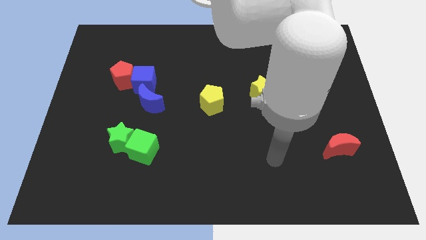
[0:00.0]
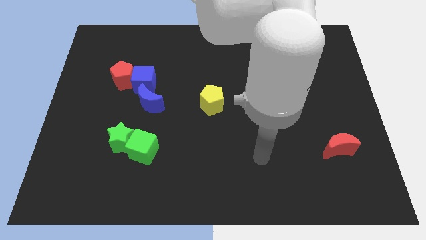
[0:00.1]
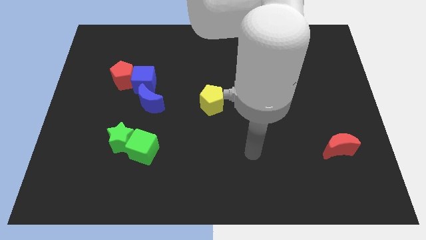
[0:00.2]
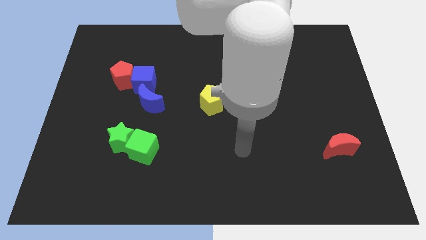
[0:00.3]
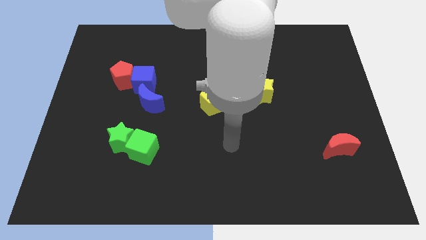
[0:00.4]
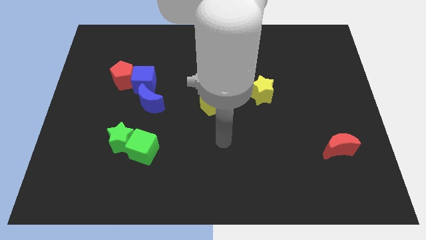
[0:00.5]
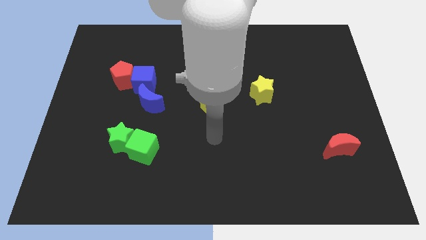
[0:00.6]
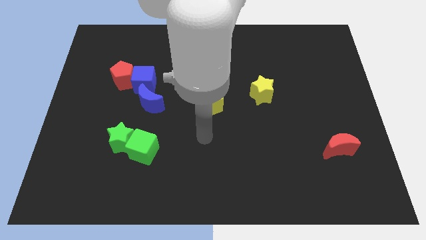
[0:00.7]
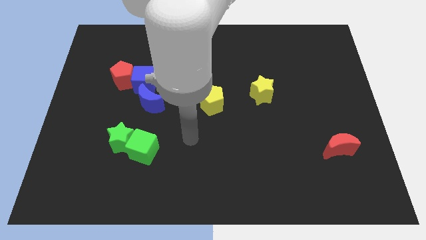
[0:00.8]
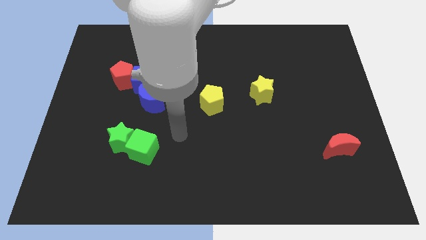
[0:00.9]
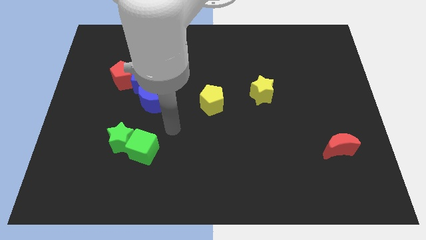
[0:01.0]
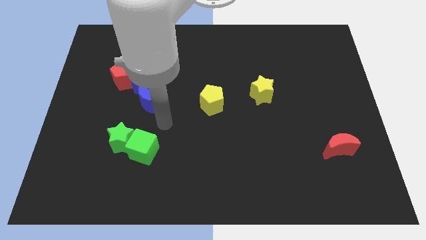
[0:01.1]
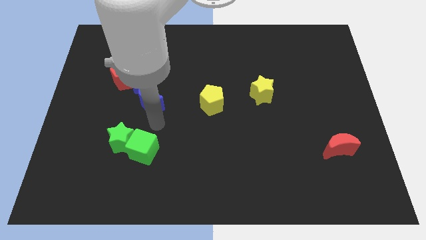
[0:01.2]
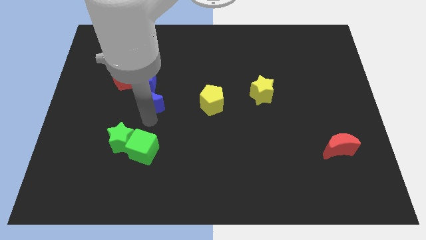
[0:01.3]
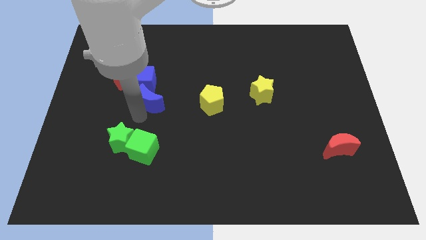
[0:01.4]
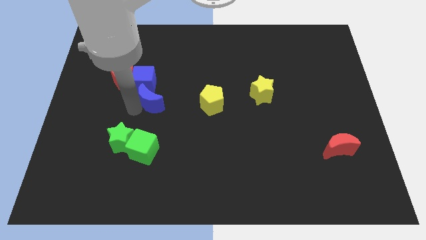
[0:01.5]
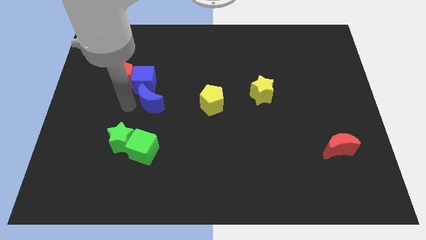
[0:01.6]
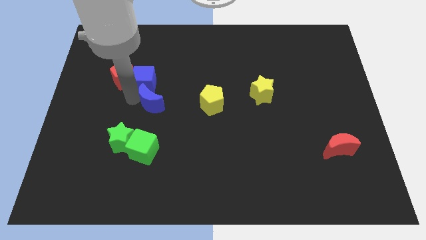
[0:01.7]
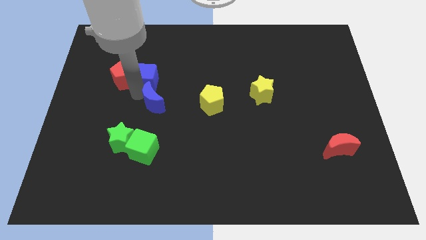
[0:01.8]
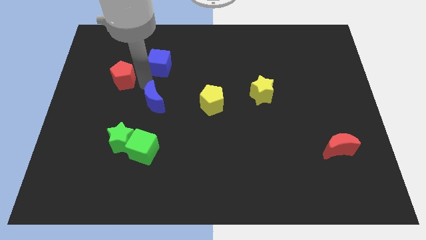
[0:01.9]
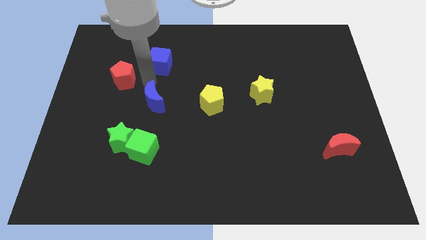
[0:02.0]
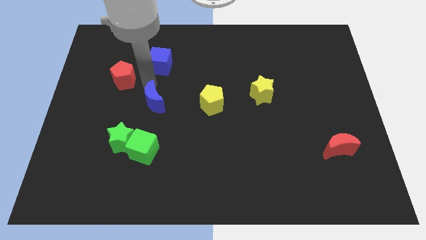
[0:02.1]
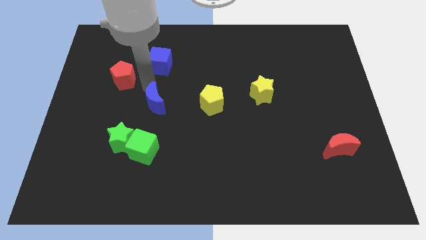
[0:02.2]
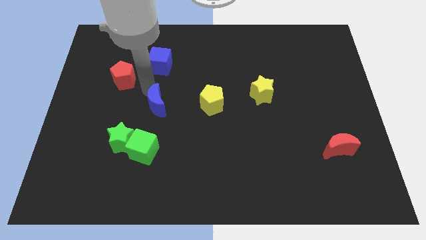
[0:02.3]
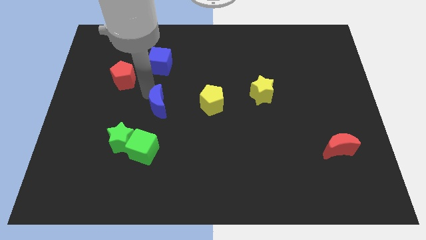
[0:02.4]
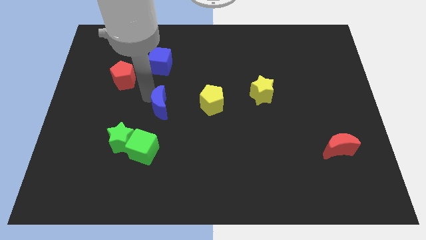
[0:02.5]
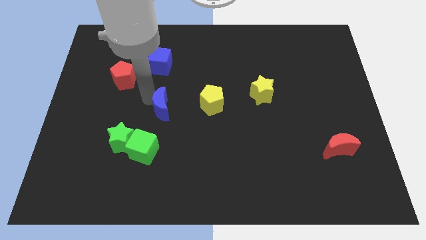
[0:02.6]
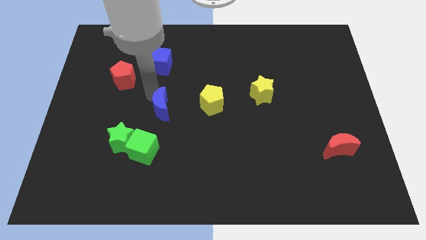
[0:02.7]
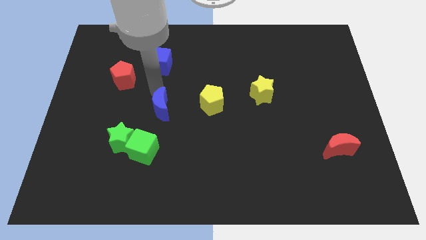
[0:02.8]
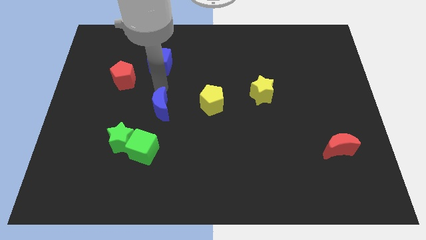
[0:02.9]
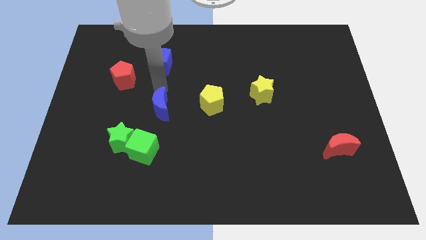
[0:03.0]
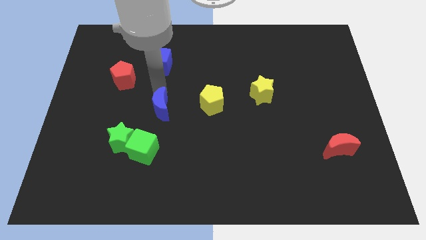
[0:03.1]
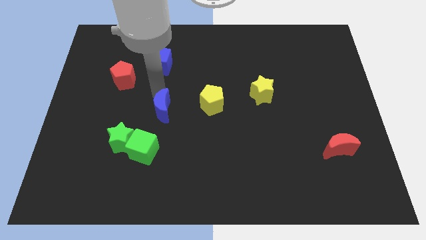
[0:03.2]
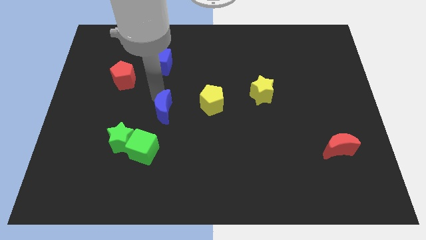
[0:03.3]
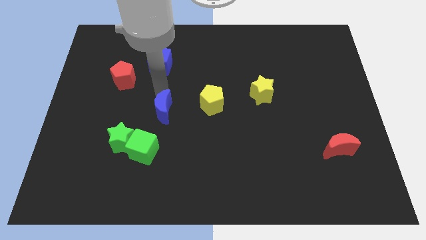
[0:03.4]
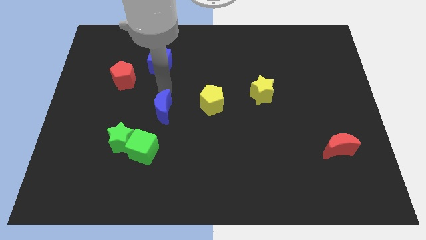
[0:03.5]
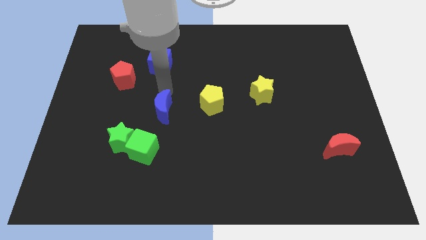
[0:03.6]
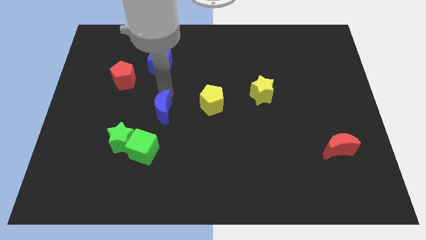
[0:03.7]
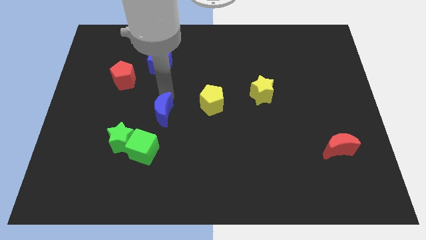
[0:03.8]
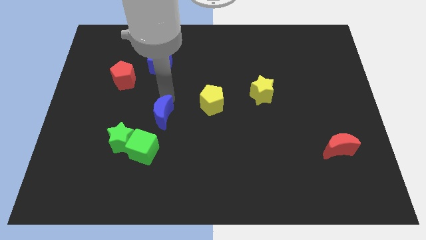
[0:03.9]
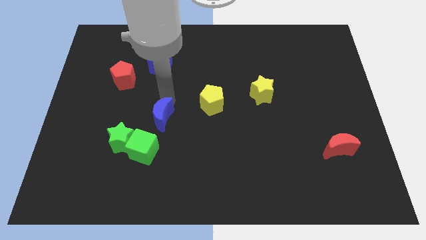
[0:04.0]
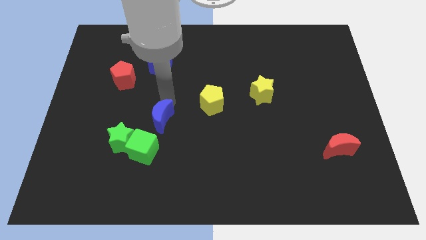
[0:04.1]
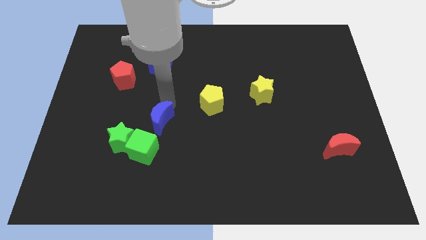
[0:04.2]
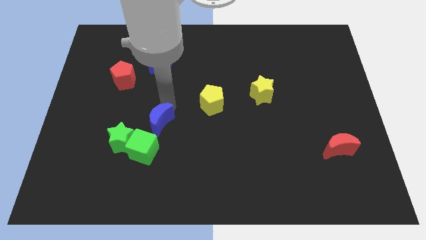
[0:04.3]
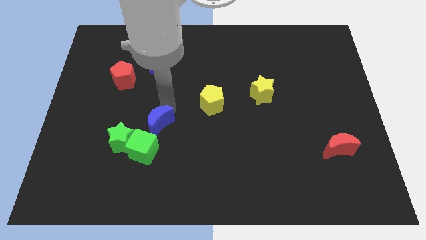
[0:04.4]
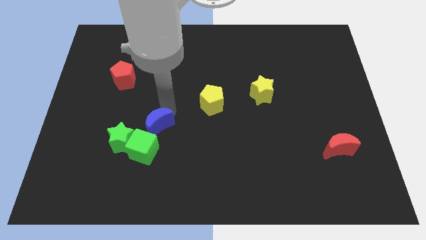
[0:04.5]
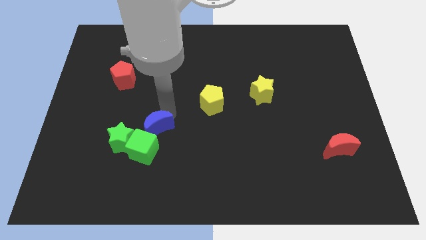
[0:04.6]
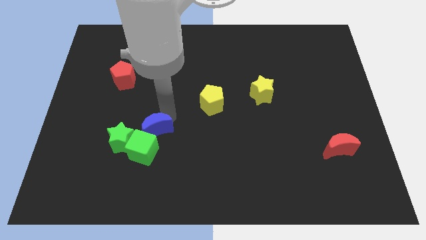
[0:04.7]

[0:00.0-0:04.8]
push the blue moon slightly down

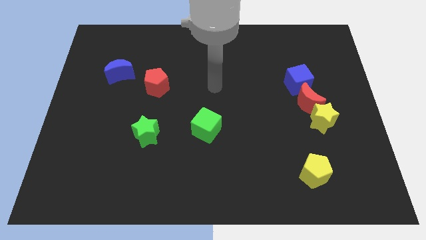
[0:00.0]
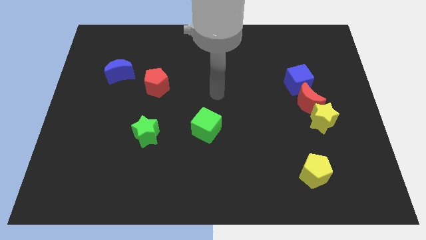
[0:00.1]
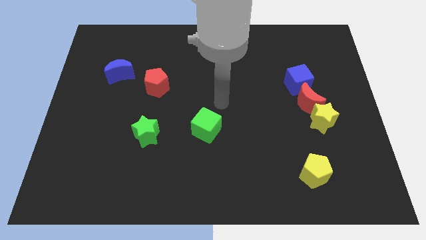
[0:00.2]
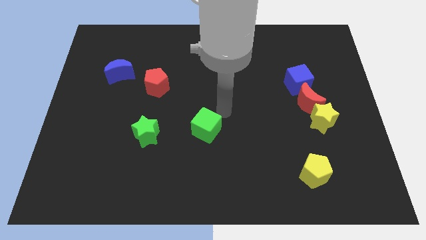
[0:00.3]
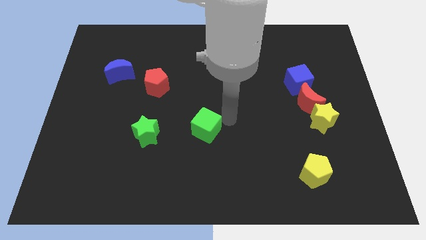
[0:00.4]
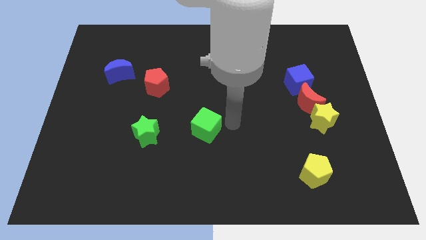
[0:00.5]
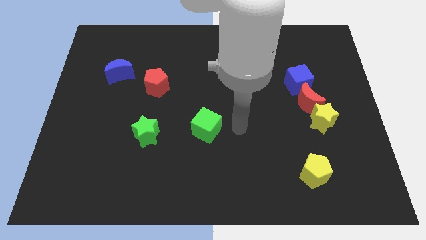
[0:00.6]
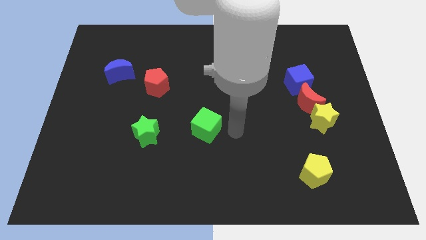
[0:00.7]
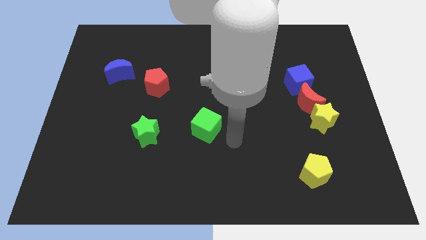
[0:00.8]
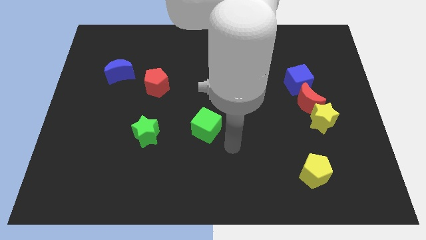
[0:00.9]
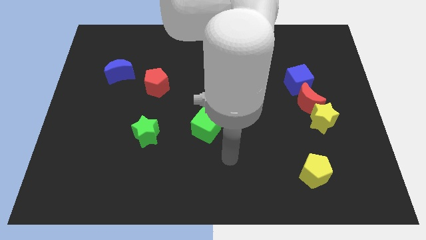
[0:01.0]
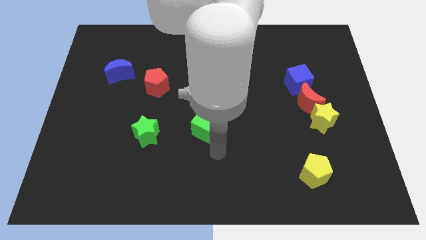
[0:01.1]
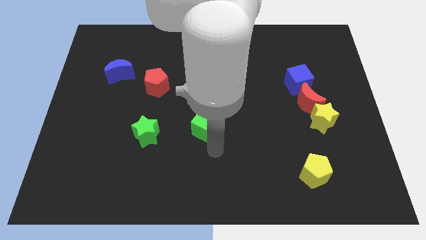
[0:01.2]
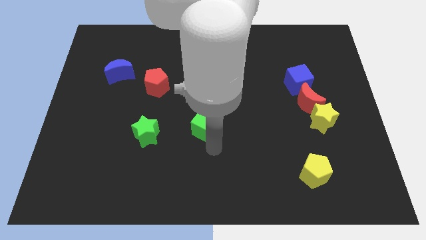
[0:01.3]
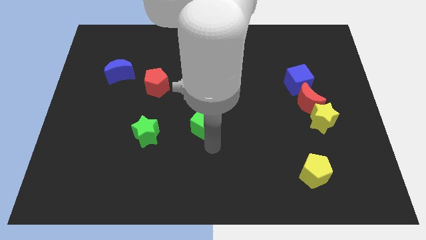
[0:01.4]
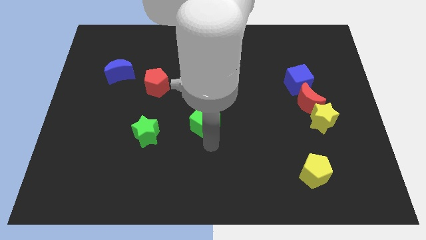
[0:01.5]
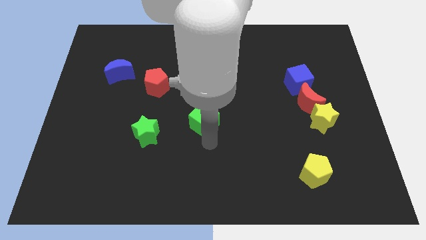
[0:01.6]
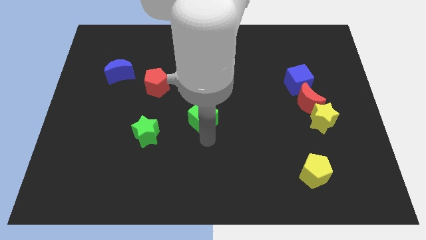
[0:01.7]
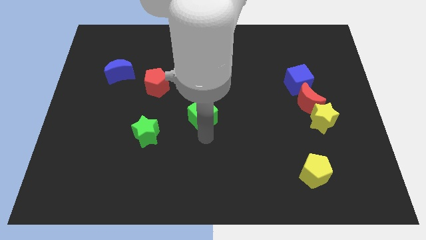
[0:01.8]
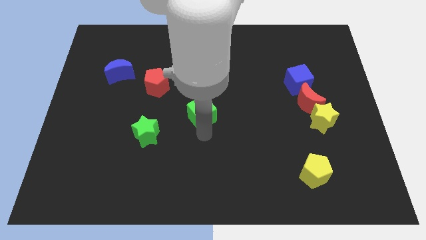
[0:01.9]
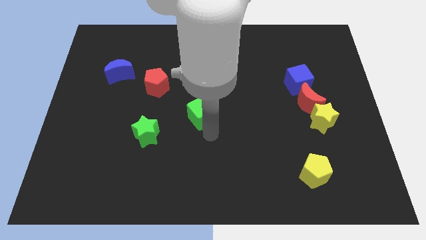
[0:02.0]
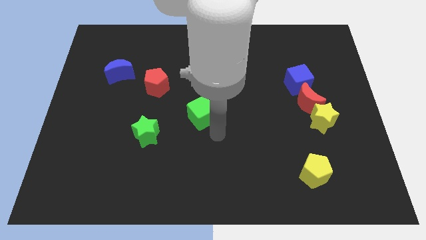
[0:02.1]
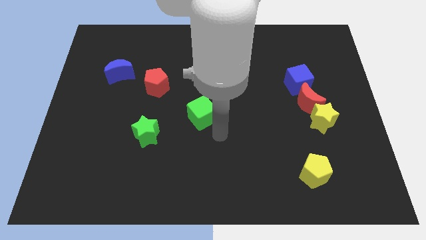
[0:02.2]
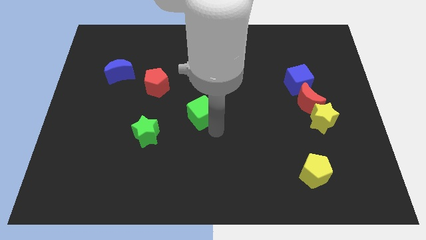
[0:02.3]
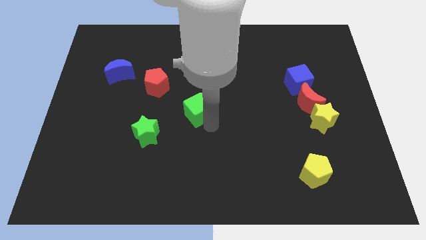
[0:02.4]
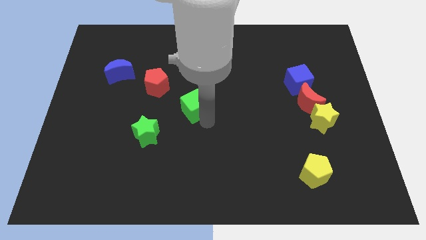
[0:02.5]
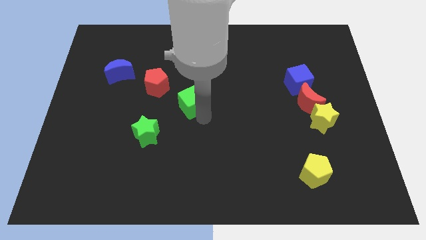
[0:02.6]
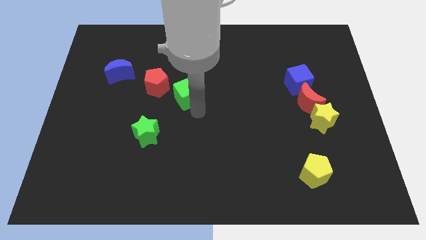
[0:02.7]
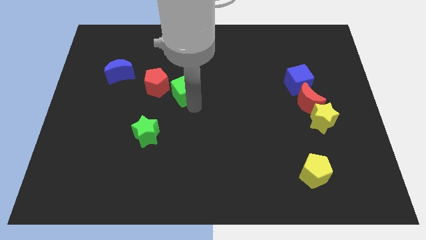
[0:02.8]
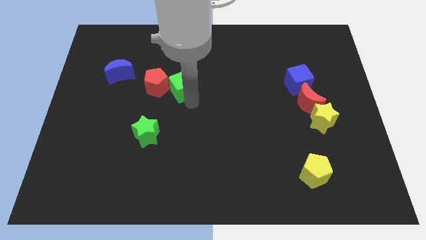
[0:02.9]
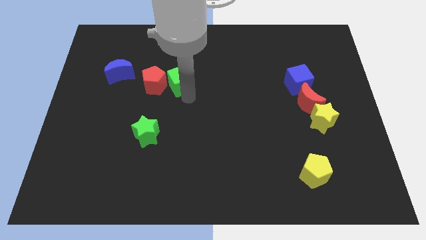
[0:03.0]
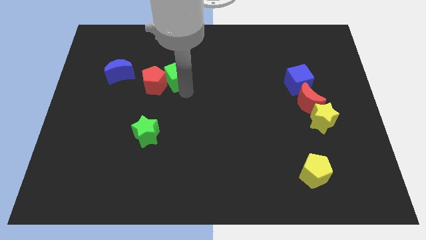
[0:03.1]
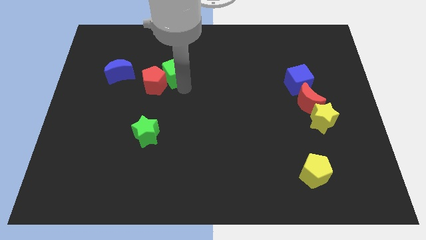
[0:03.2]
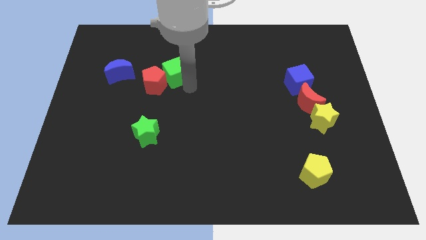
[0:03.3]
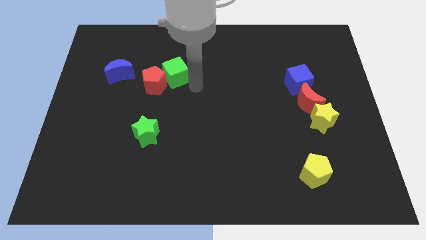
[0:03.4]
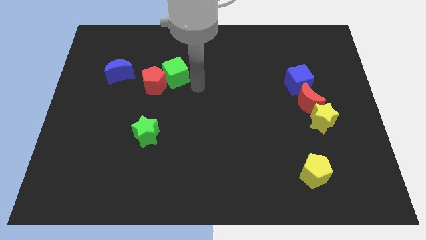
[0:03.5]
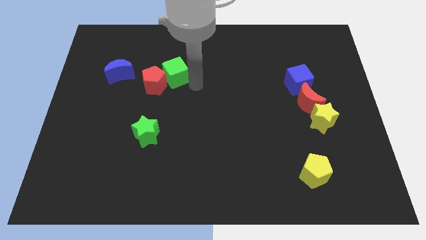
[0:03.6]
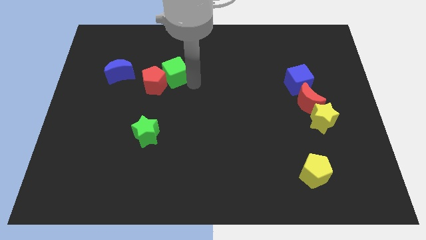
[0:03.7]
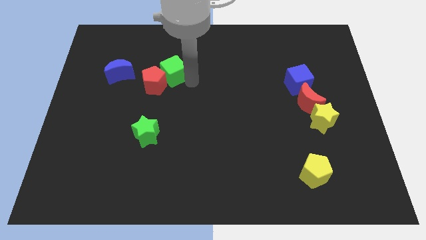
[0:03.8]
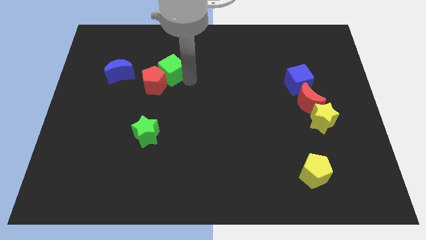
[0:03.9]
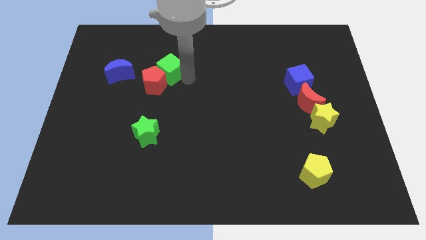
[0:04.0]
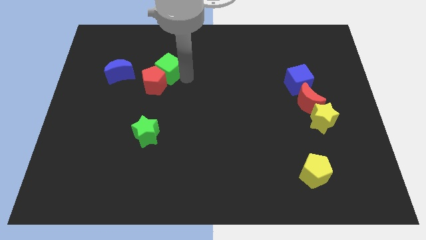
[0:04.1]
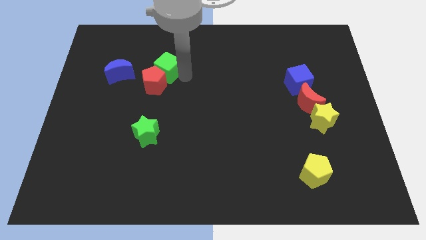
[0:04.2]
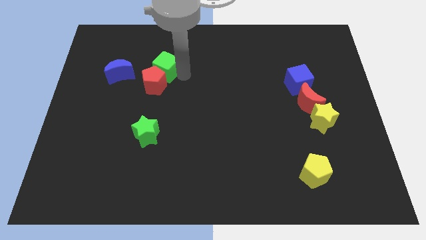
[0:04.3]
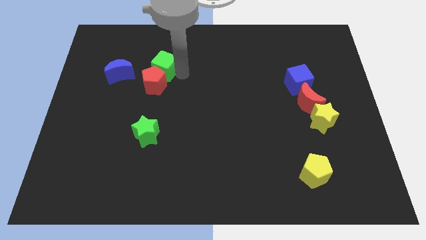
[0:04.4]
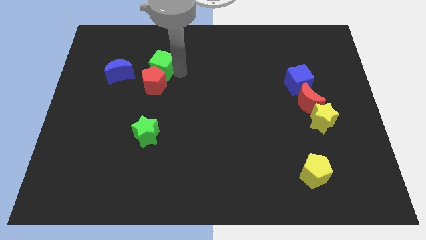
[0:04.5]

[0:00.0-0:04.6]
slide the green cube up and to the left diagonally
